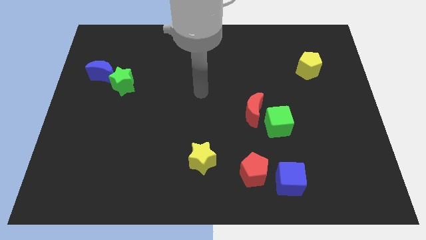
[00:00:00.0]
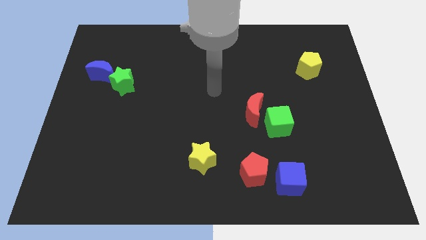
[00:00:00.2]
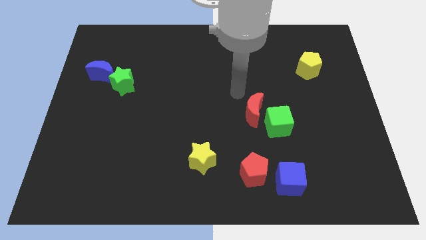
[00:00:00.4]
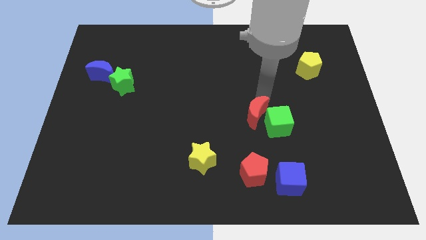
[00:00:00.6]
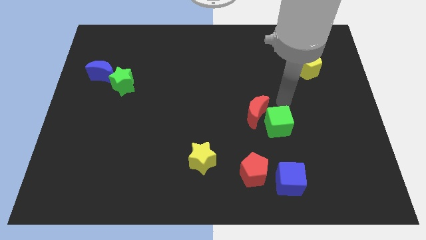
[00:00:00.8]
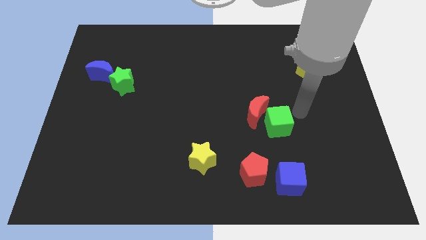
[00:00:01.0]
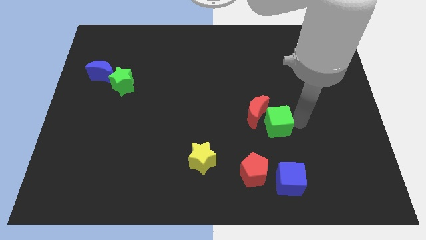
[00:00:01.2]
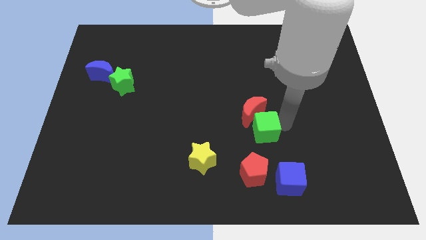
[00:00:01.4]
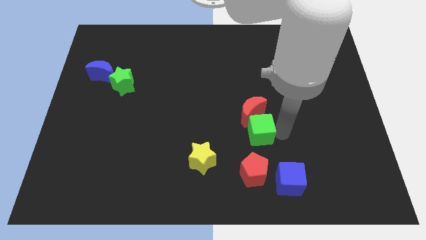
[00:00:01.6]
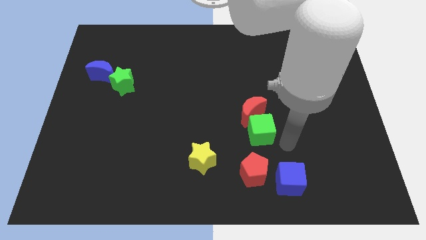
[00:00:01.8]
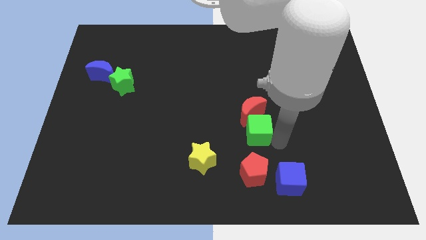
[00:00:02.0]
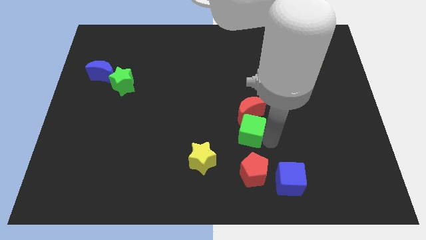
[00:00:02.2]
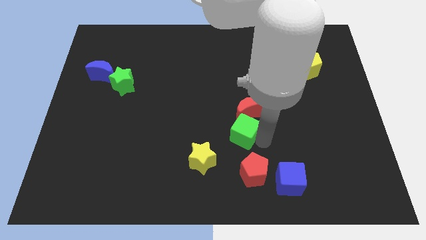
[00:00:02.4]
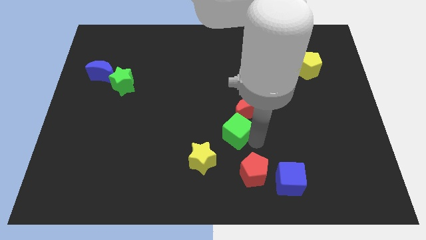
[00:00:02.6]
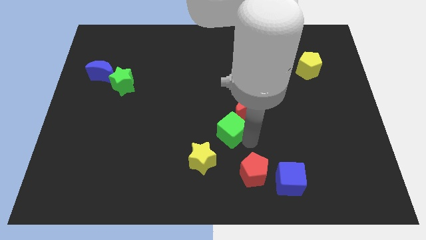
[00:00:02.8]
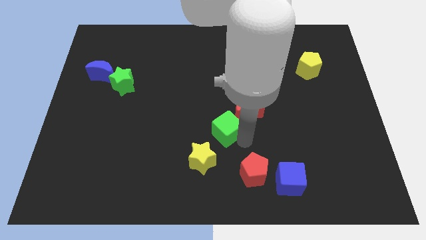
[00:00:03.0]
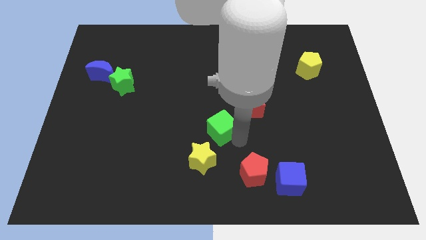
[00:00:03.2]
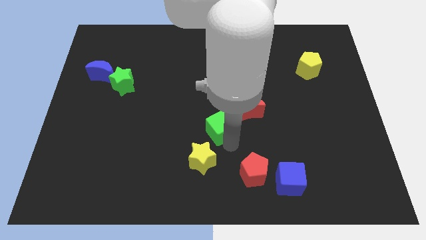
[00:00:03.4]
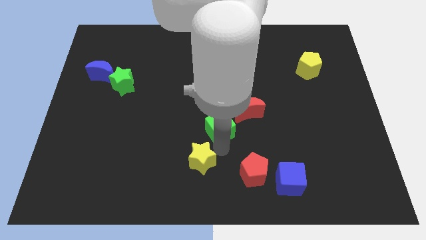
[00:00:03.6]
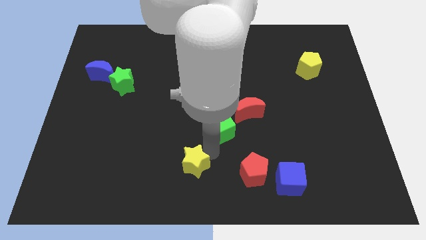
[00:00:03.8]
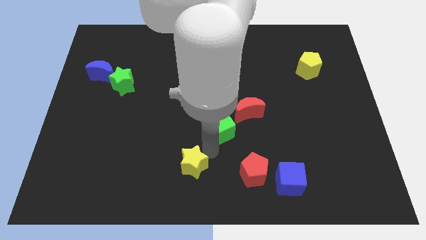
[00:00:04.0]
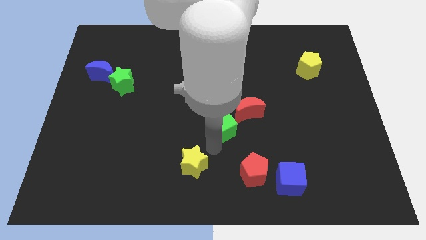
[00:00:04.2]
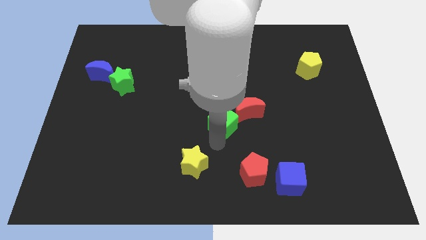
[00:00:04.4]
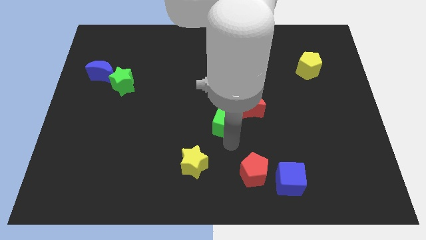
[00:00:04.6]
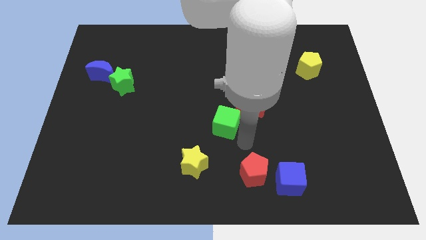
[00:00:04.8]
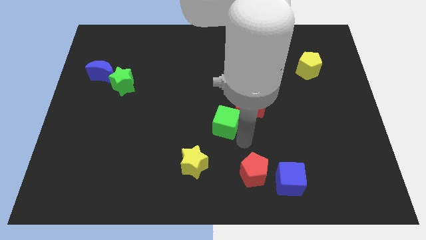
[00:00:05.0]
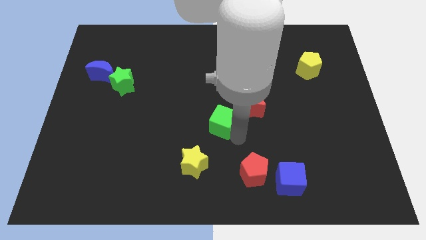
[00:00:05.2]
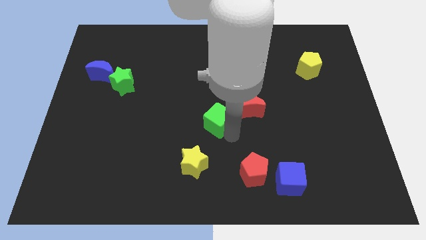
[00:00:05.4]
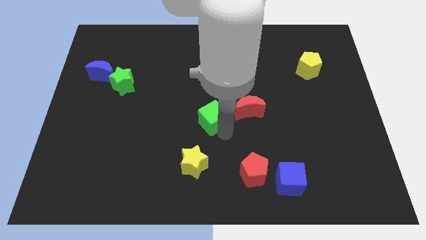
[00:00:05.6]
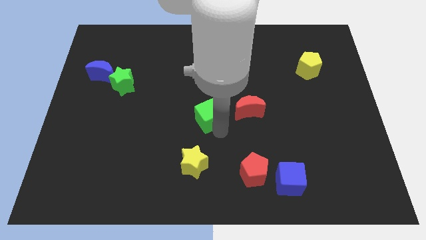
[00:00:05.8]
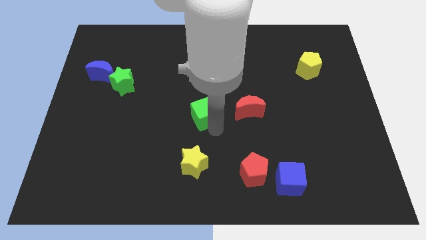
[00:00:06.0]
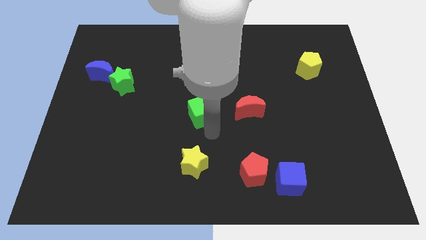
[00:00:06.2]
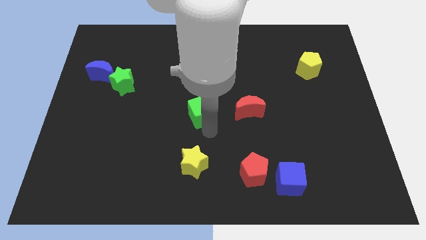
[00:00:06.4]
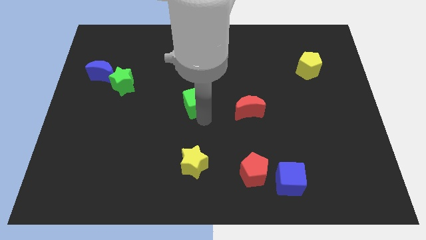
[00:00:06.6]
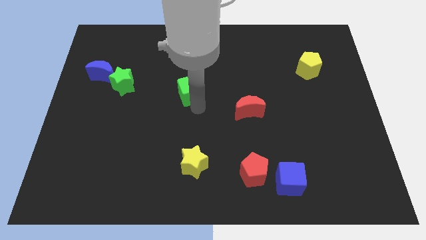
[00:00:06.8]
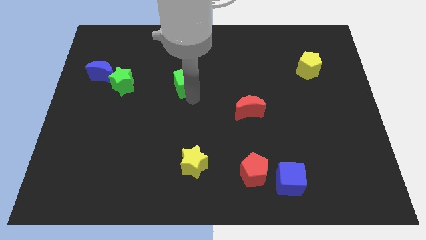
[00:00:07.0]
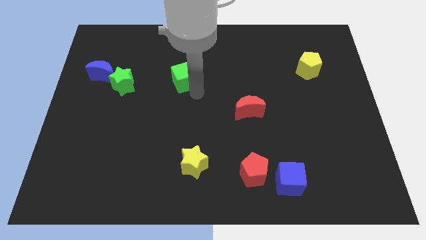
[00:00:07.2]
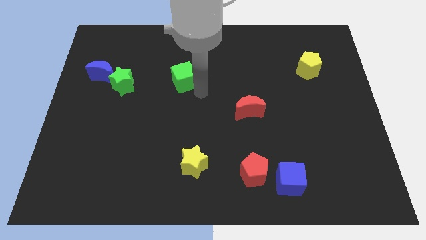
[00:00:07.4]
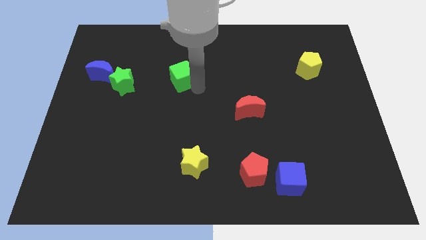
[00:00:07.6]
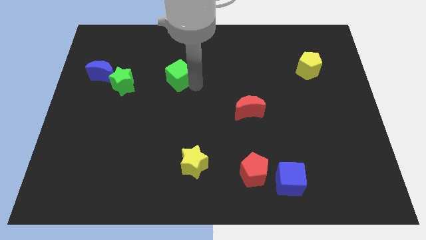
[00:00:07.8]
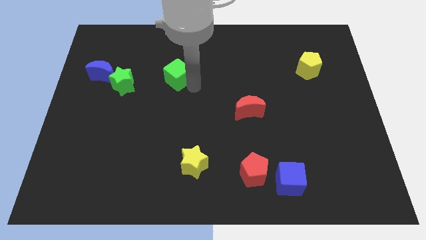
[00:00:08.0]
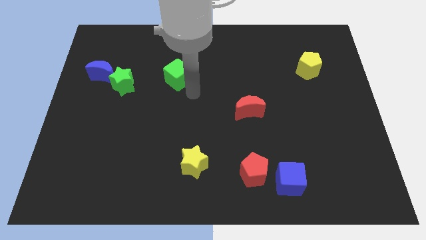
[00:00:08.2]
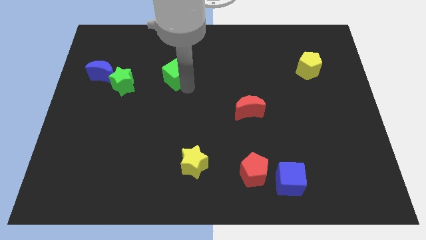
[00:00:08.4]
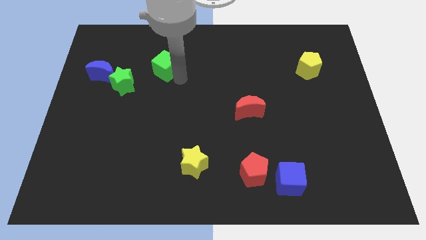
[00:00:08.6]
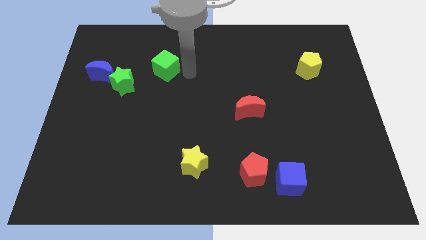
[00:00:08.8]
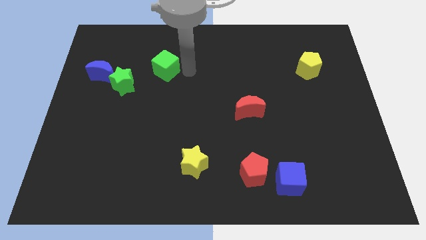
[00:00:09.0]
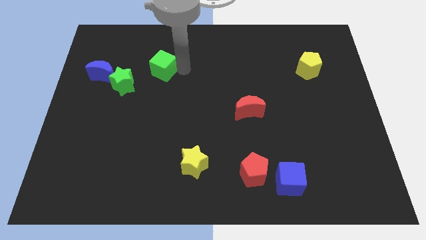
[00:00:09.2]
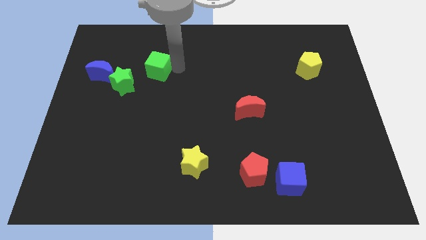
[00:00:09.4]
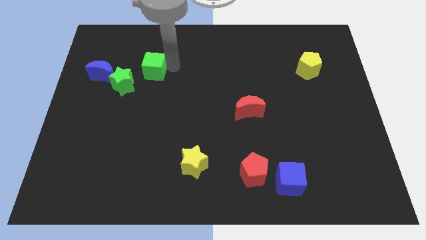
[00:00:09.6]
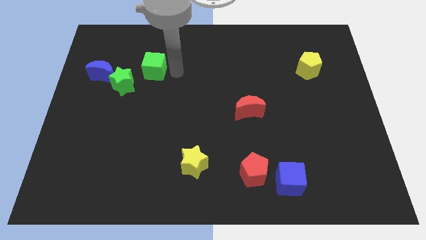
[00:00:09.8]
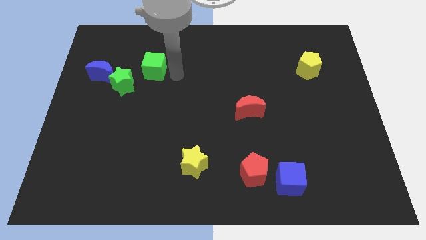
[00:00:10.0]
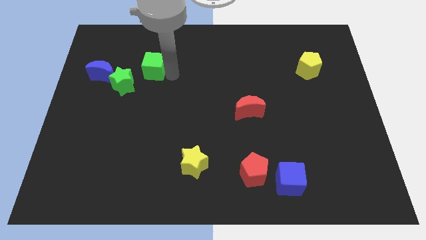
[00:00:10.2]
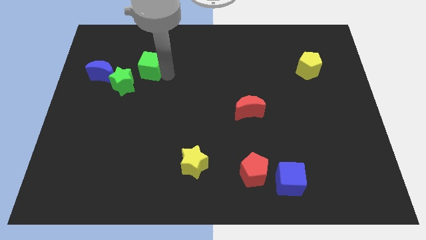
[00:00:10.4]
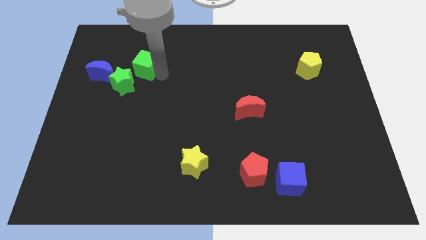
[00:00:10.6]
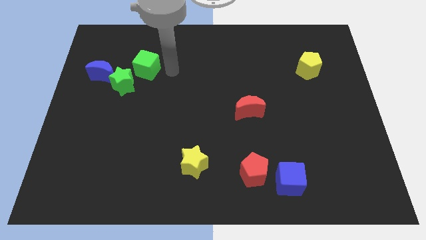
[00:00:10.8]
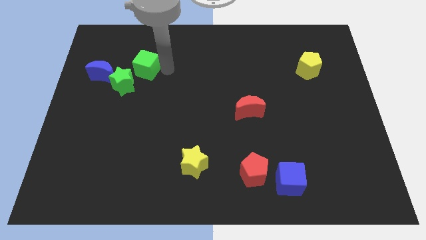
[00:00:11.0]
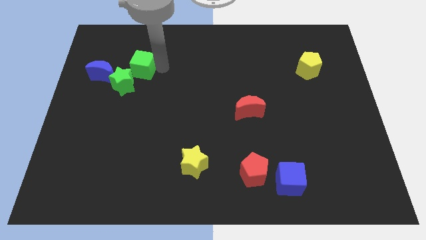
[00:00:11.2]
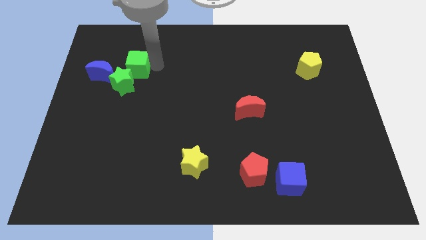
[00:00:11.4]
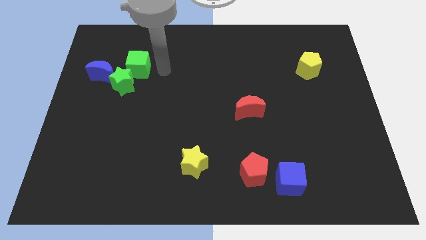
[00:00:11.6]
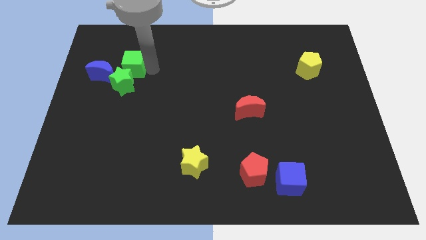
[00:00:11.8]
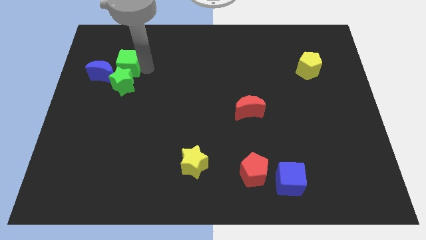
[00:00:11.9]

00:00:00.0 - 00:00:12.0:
slide the green cube to the top left of the green star

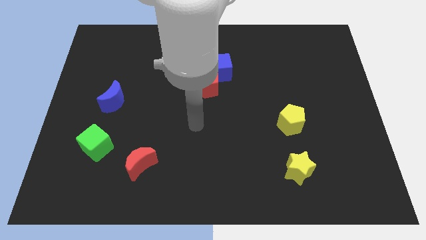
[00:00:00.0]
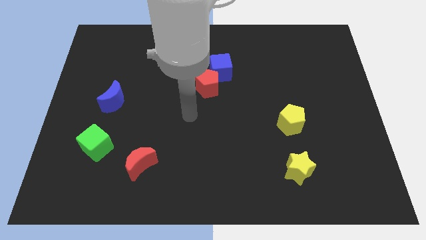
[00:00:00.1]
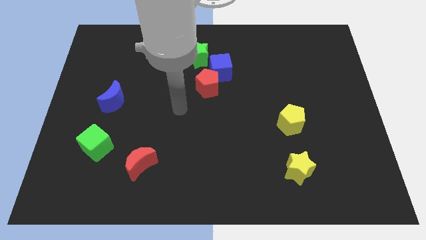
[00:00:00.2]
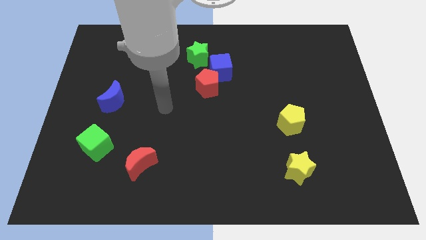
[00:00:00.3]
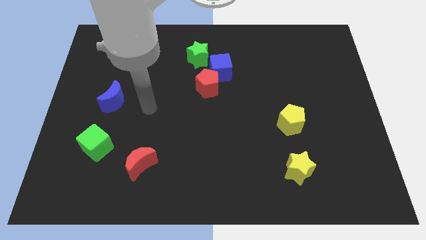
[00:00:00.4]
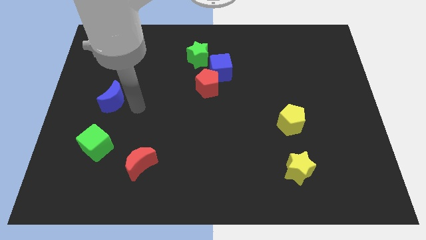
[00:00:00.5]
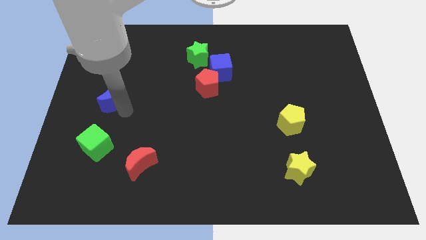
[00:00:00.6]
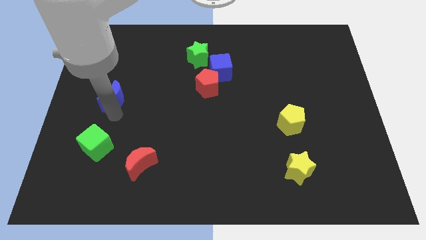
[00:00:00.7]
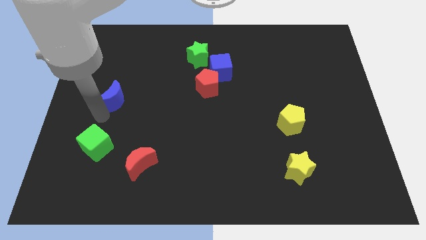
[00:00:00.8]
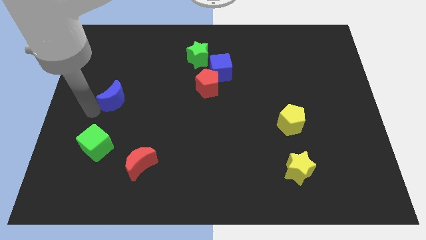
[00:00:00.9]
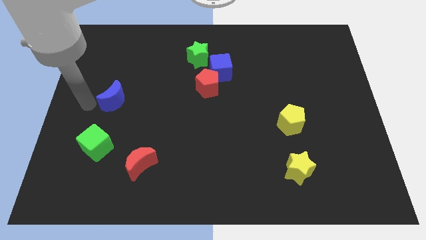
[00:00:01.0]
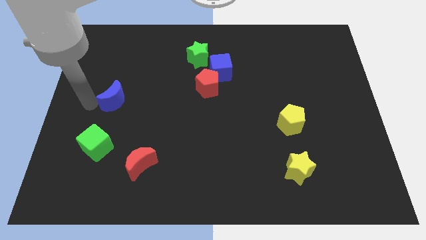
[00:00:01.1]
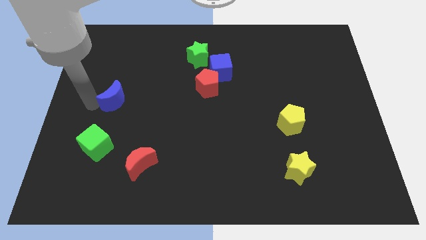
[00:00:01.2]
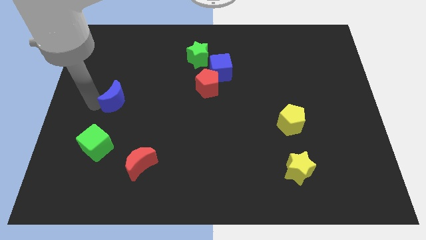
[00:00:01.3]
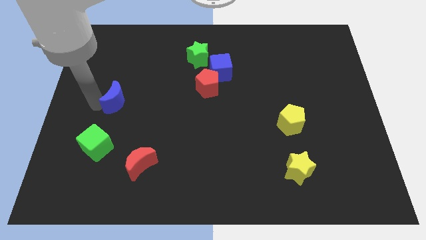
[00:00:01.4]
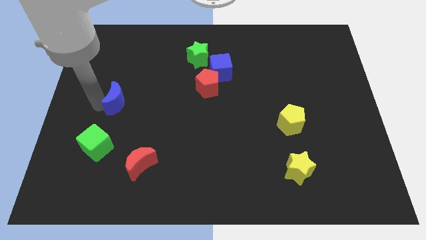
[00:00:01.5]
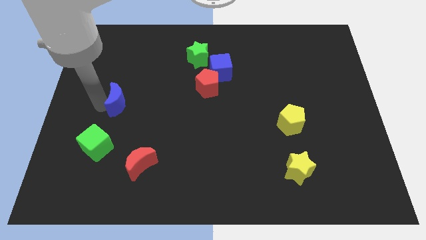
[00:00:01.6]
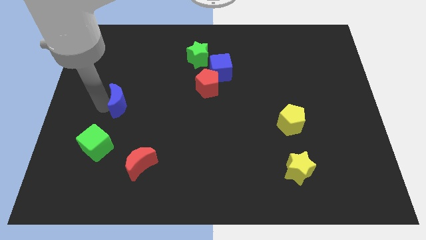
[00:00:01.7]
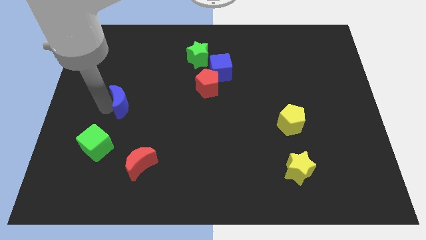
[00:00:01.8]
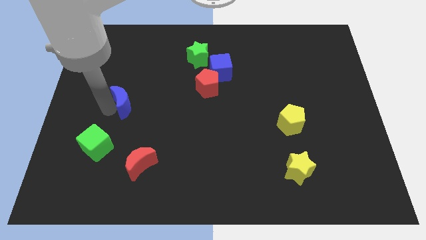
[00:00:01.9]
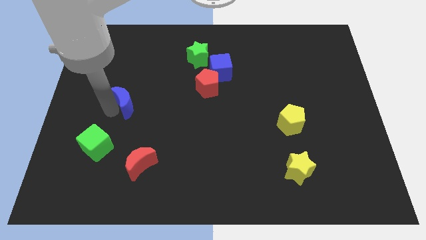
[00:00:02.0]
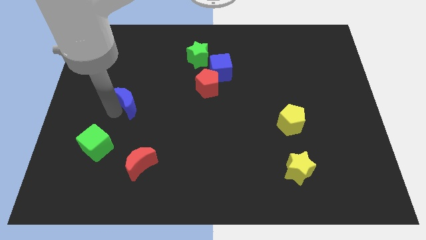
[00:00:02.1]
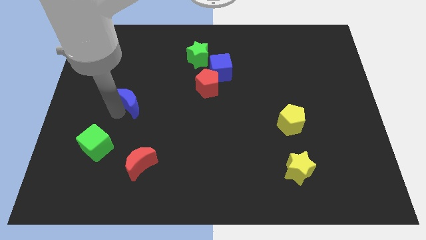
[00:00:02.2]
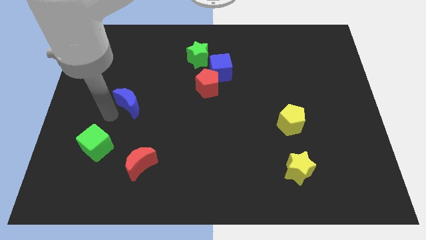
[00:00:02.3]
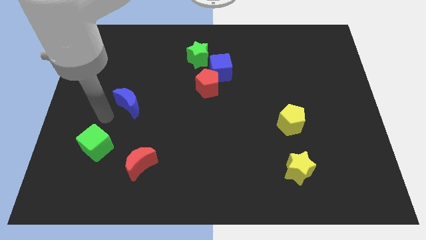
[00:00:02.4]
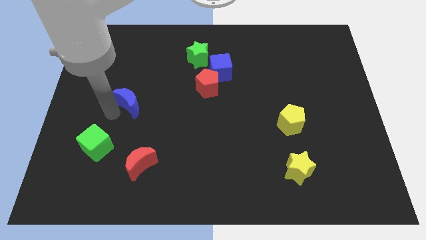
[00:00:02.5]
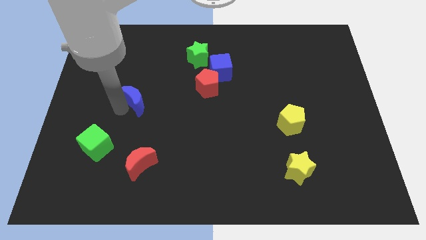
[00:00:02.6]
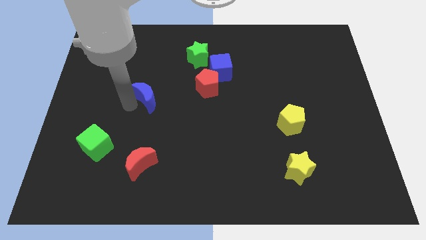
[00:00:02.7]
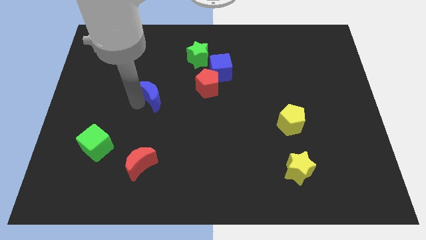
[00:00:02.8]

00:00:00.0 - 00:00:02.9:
push the blue moon to the left of the red pentagon
